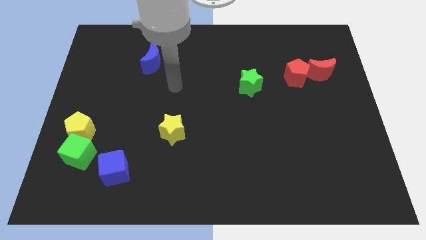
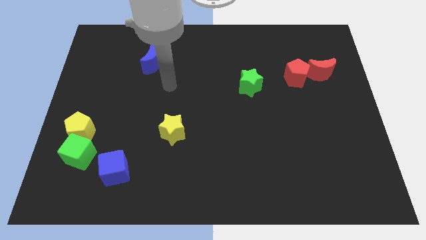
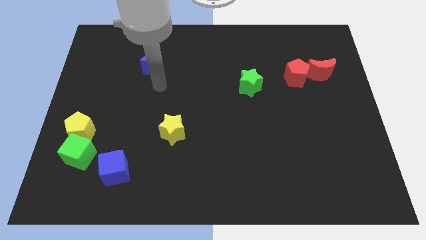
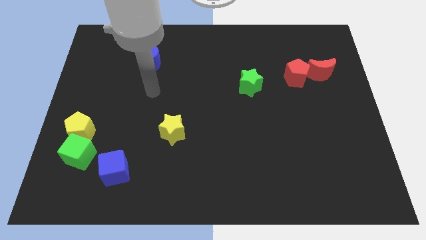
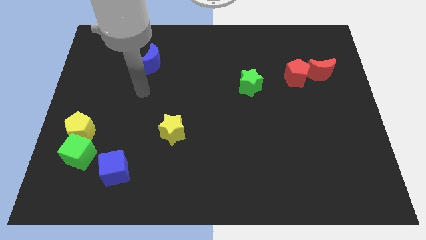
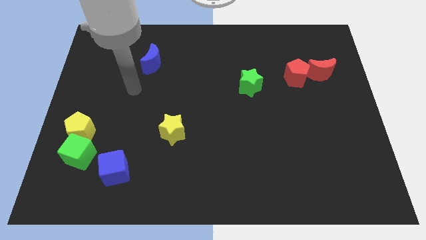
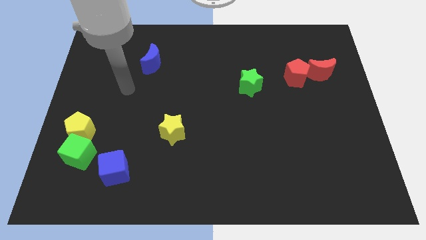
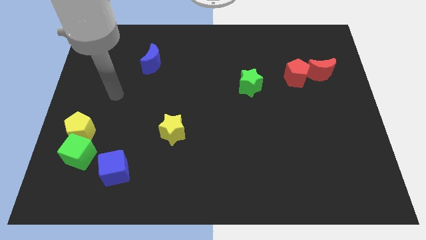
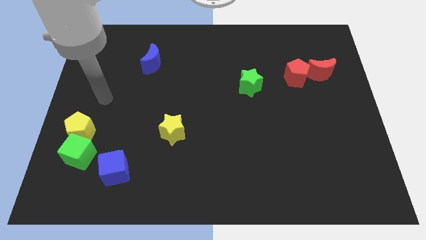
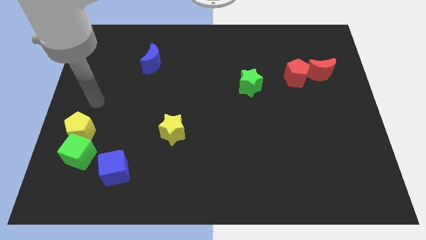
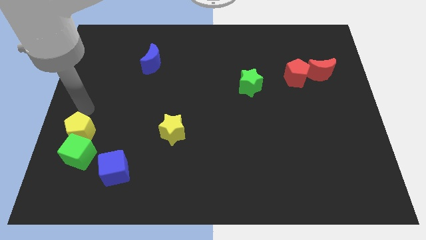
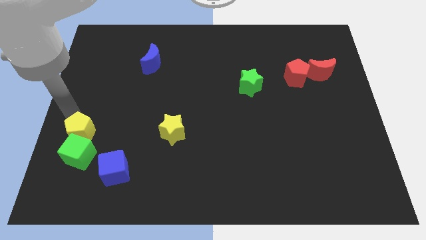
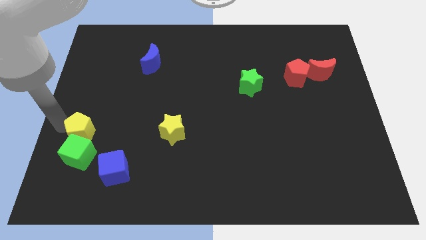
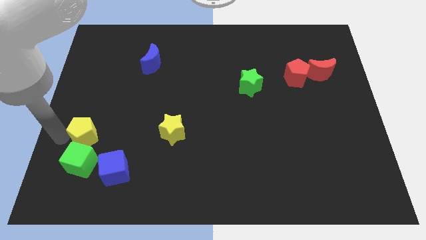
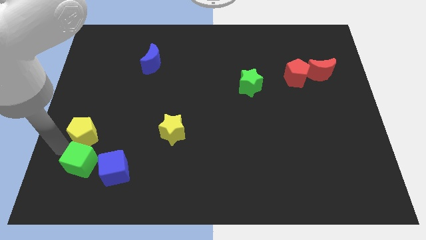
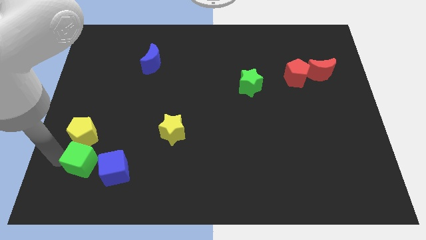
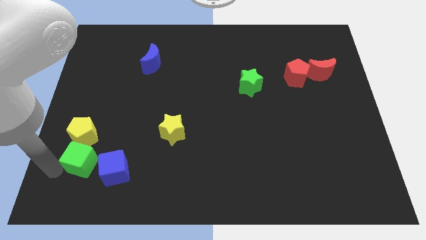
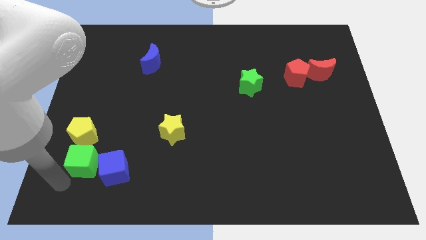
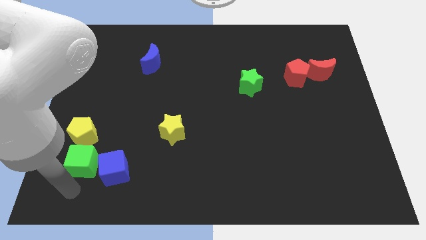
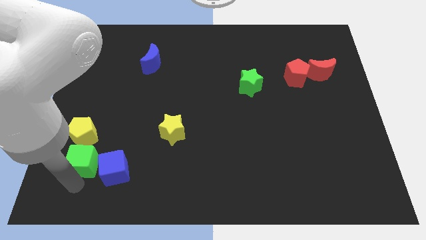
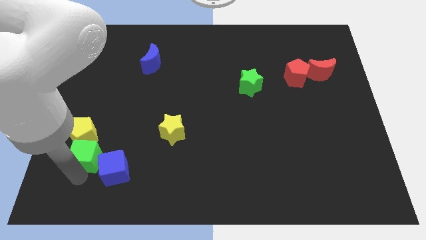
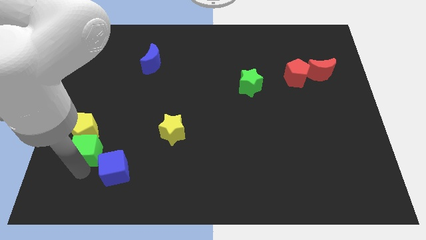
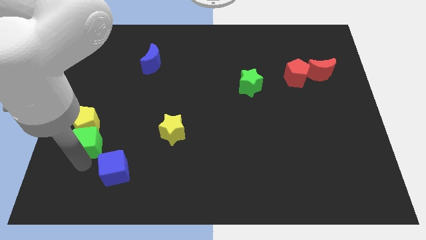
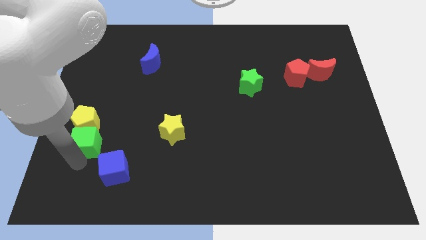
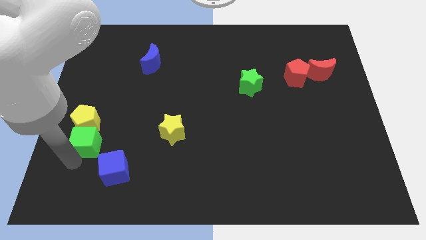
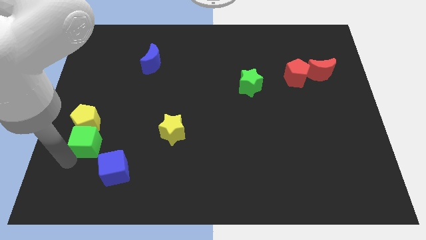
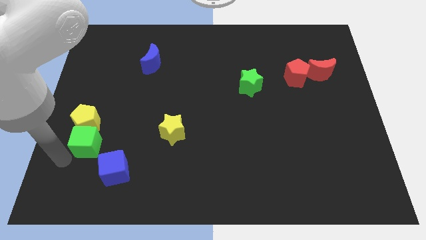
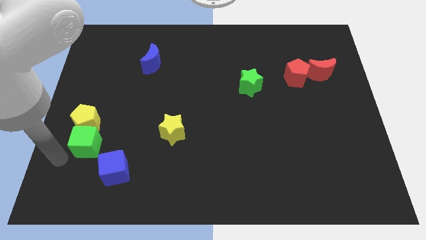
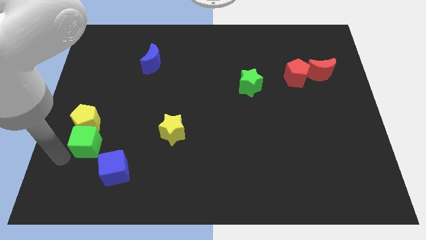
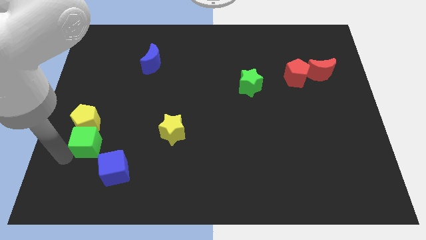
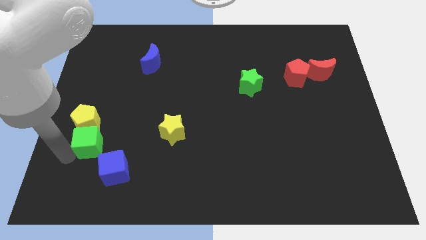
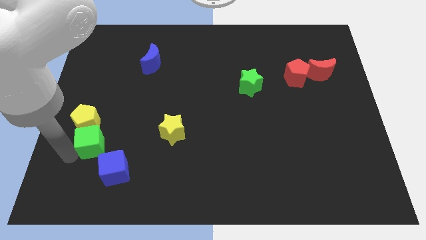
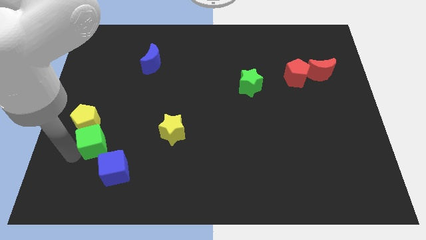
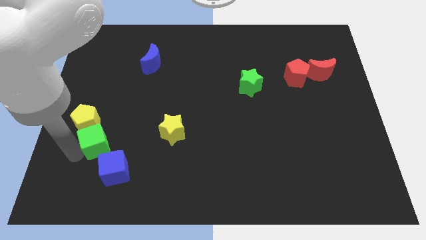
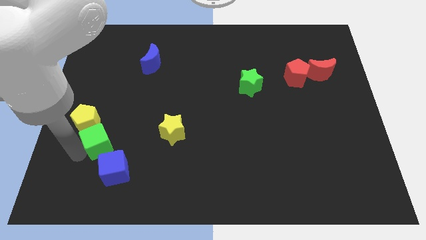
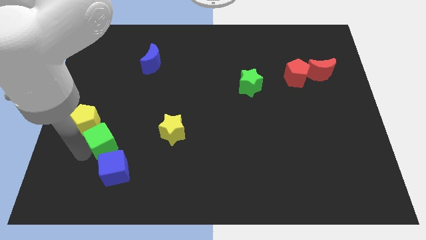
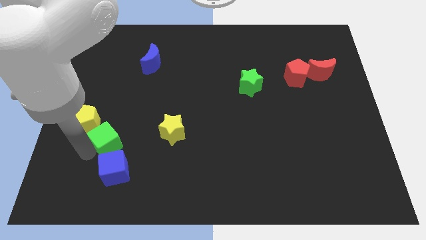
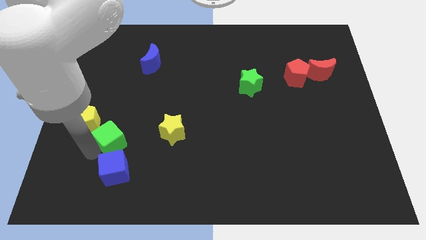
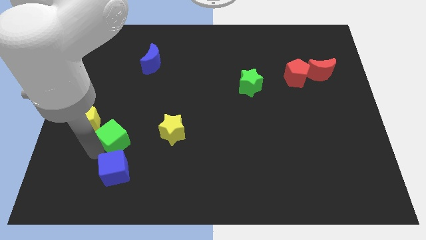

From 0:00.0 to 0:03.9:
slightly slide the green cube up and then right

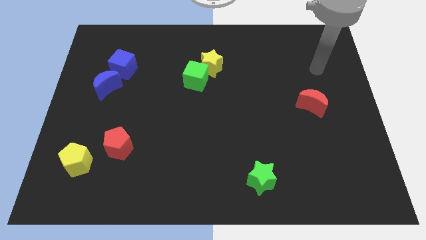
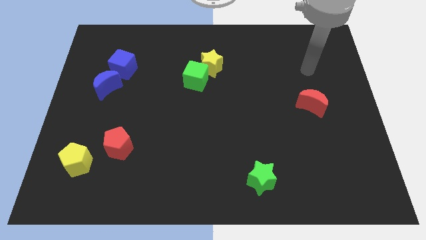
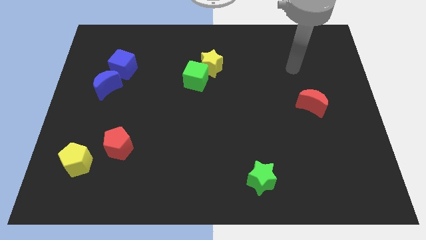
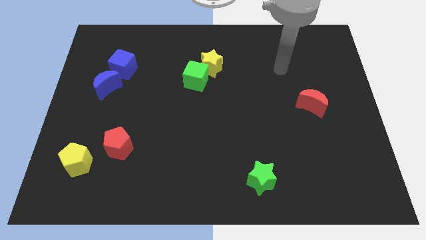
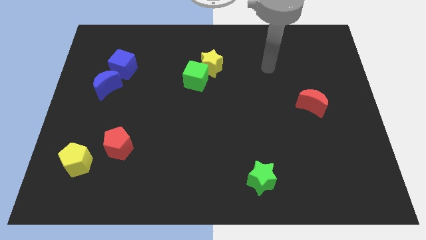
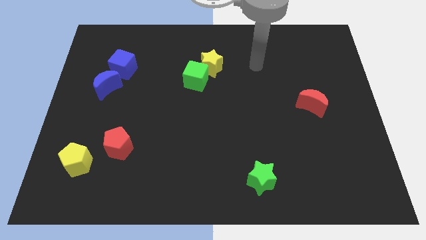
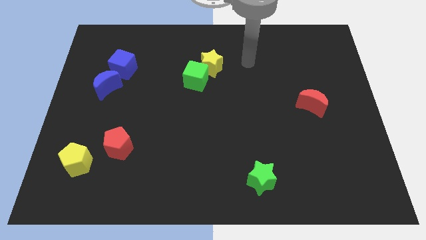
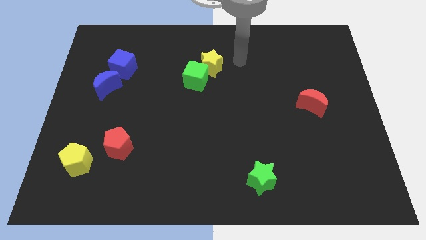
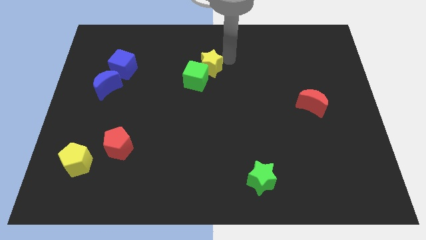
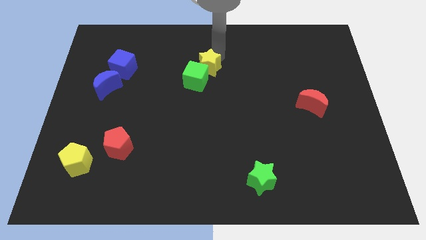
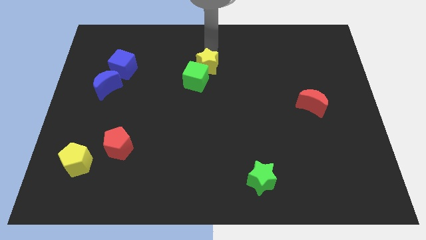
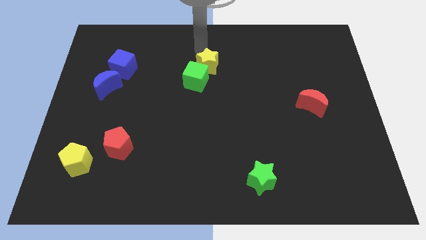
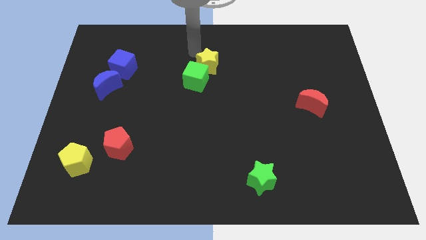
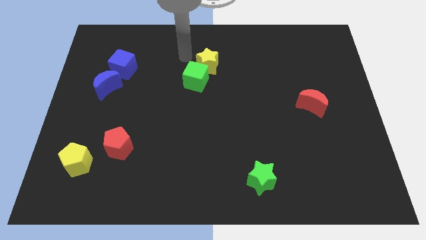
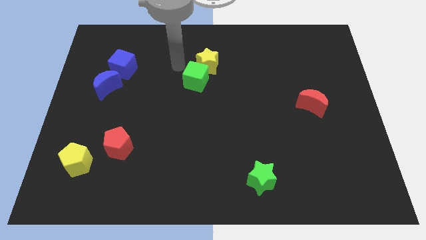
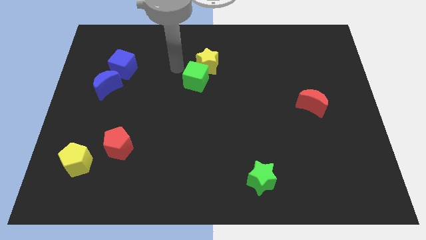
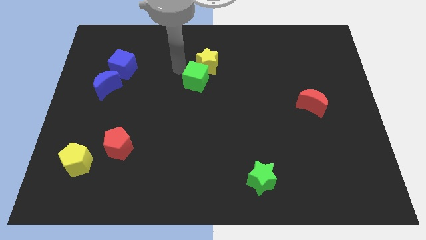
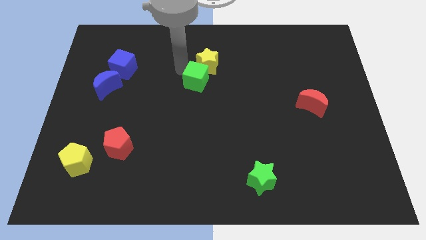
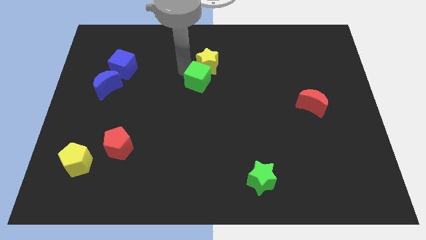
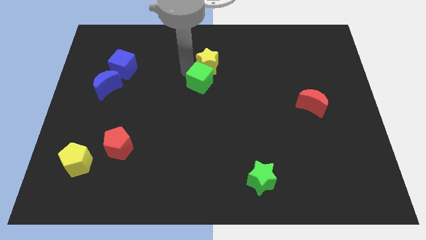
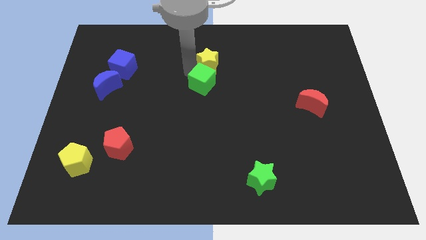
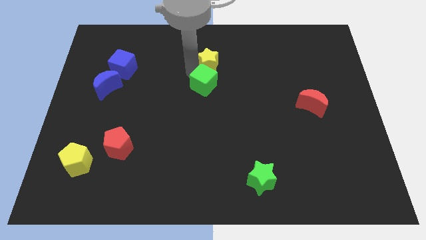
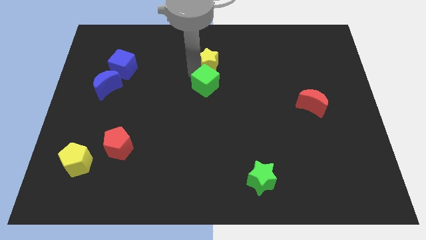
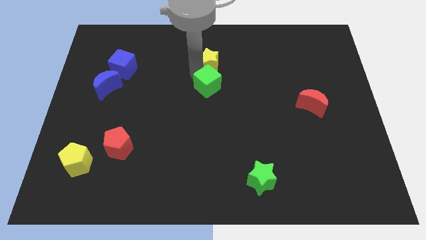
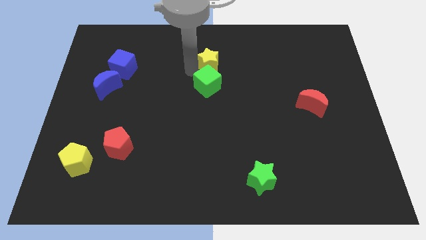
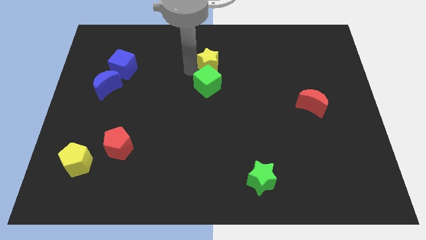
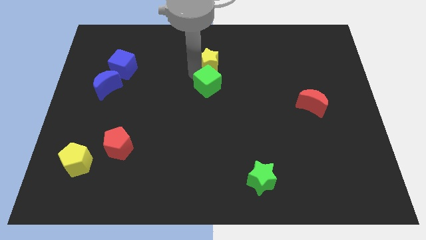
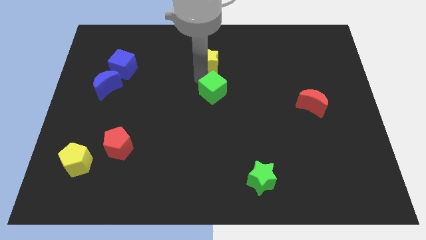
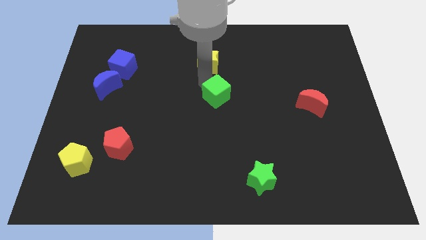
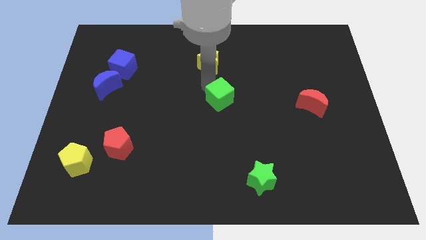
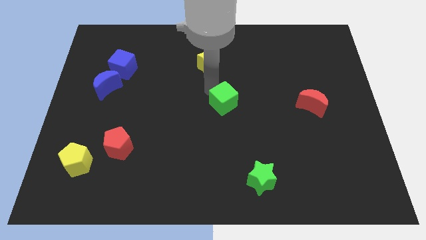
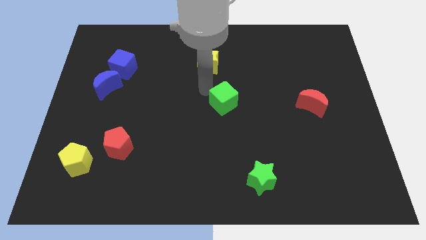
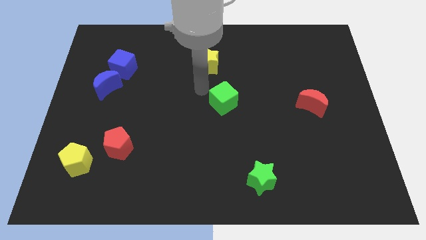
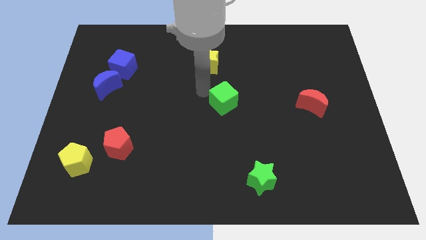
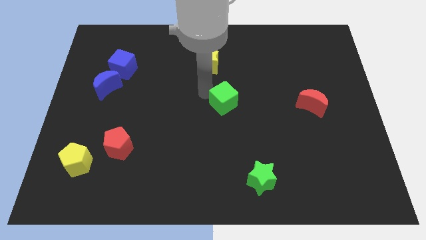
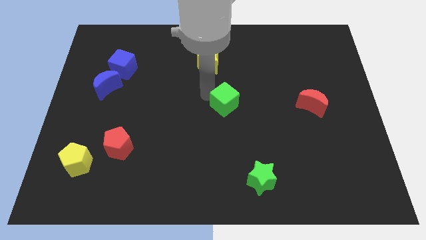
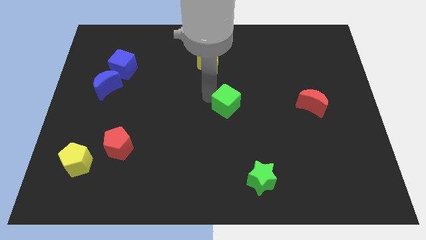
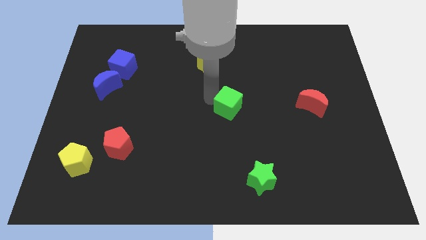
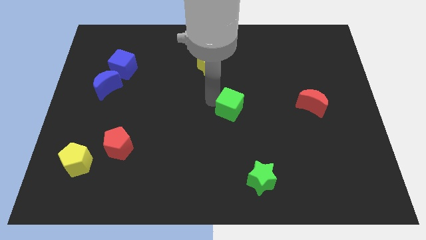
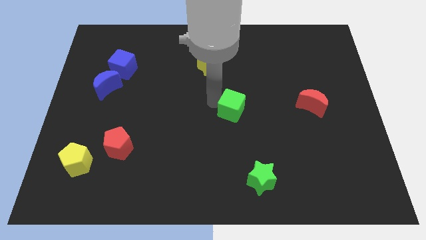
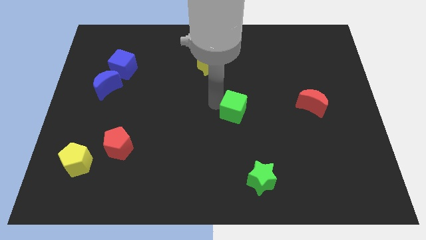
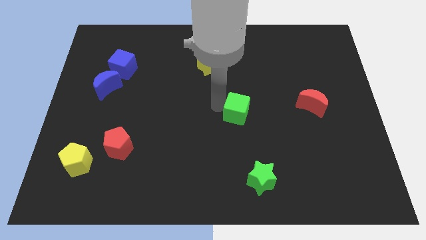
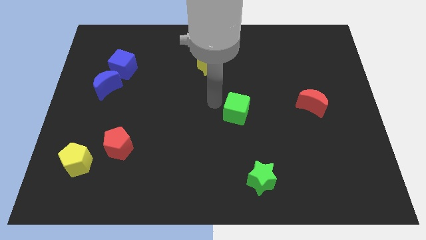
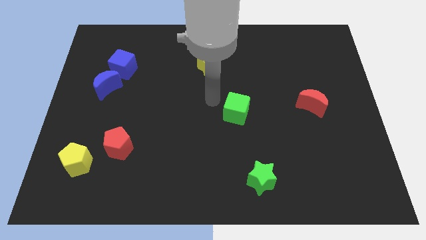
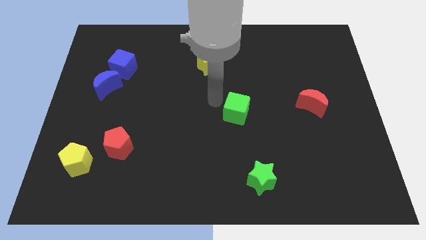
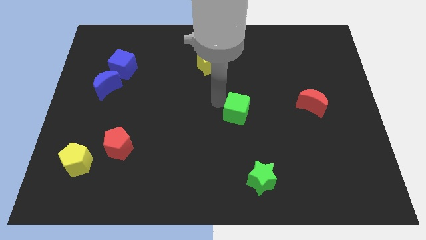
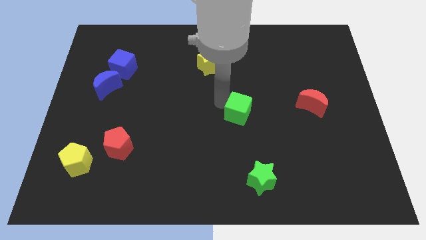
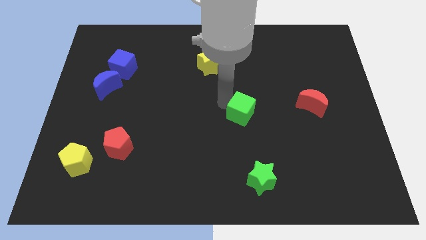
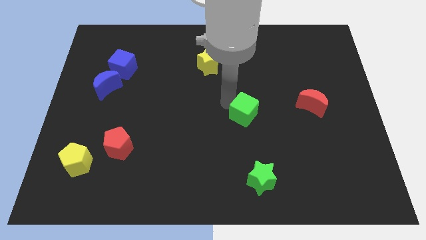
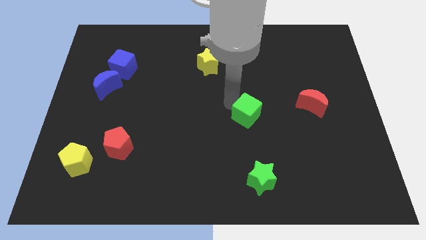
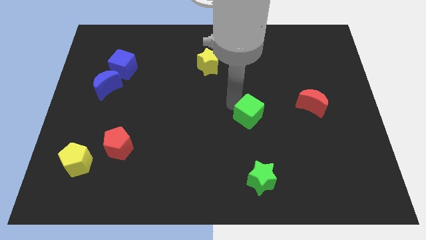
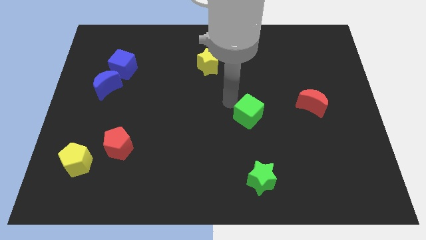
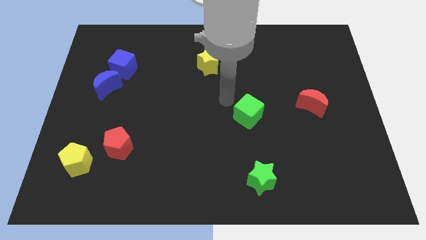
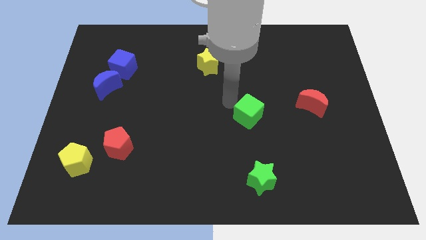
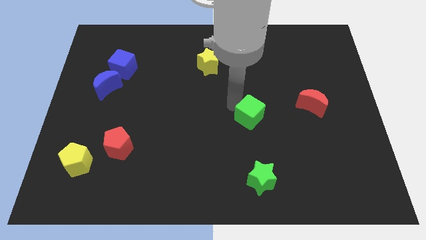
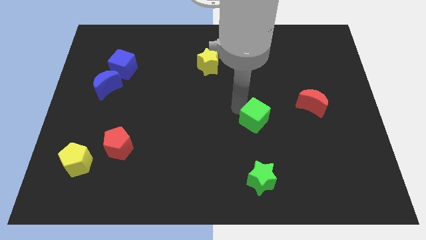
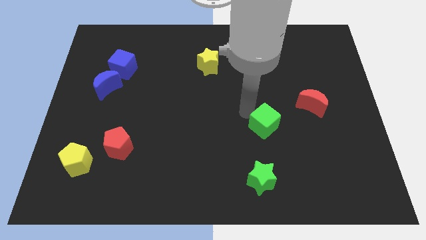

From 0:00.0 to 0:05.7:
move the green cube down and right diagonally
